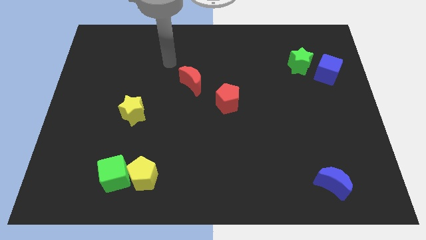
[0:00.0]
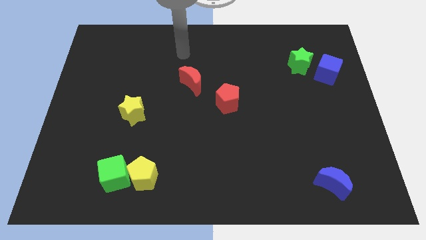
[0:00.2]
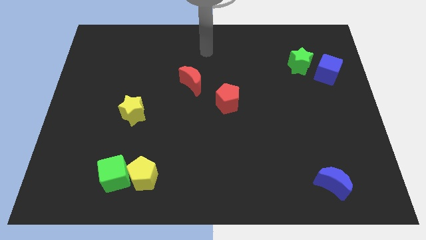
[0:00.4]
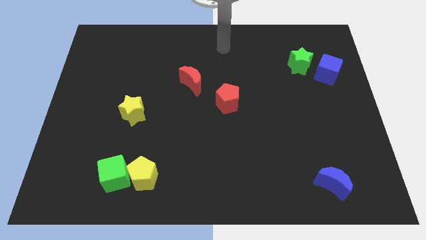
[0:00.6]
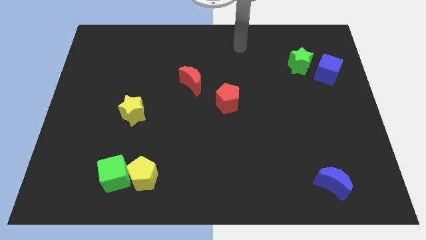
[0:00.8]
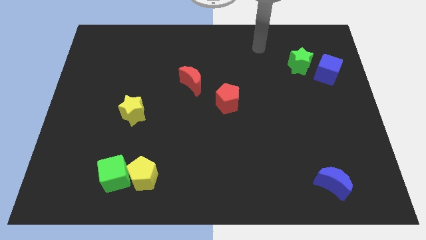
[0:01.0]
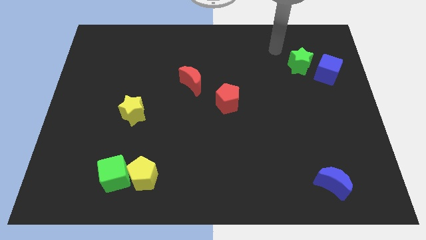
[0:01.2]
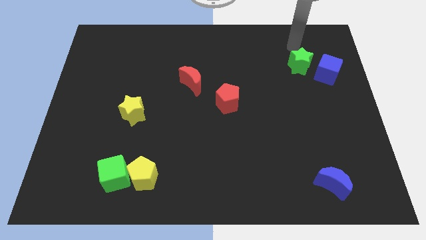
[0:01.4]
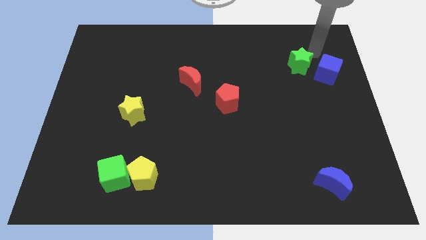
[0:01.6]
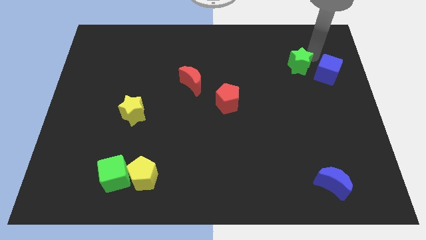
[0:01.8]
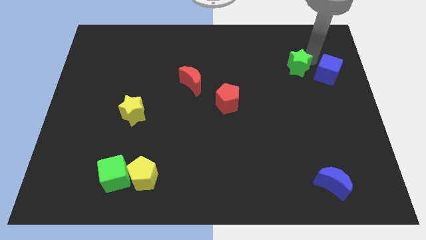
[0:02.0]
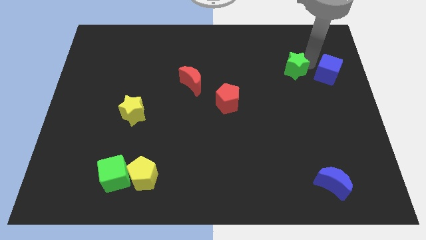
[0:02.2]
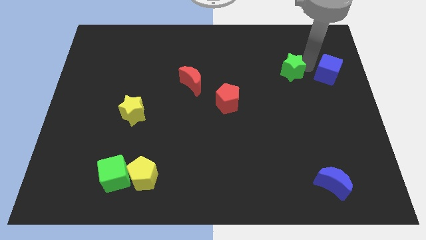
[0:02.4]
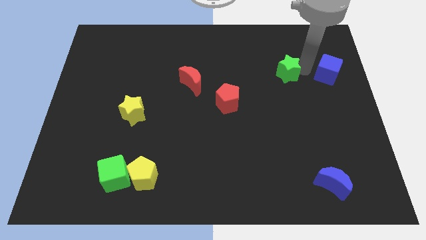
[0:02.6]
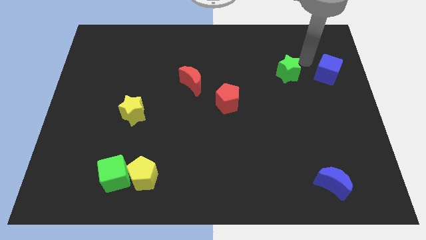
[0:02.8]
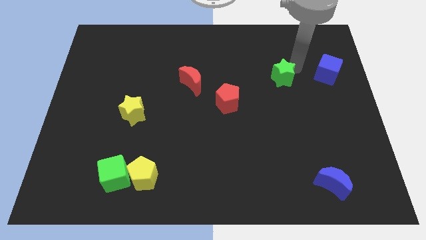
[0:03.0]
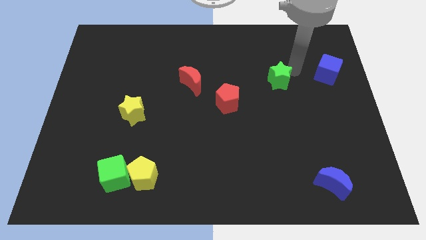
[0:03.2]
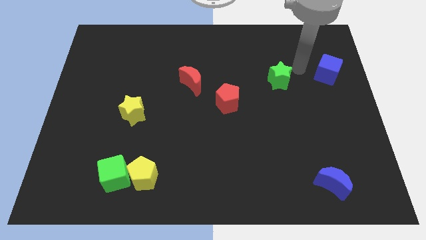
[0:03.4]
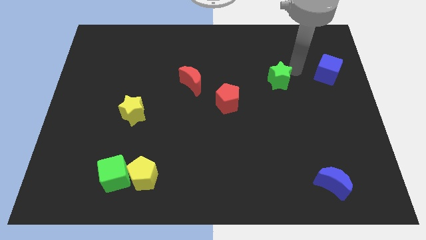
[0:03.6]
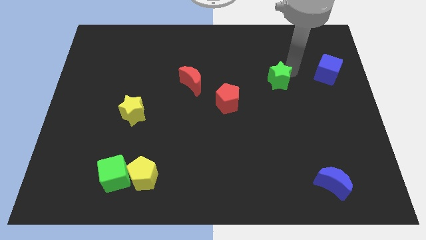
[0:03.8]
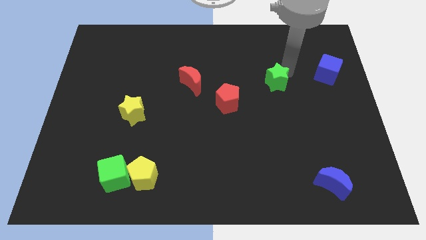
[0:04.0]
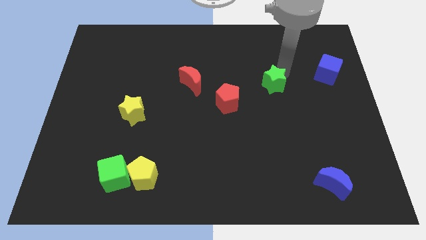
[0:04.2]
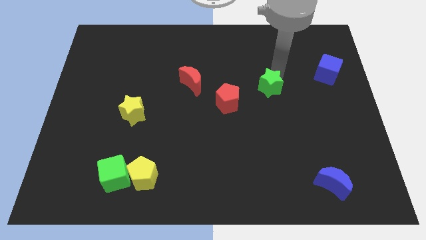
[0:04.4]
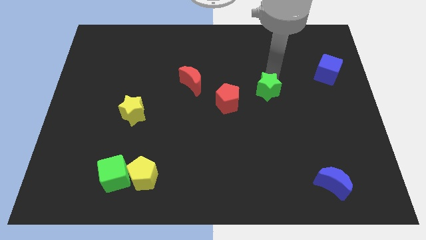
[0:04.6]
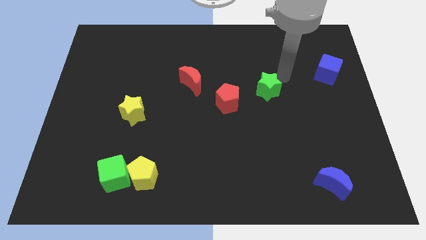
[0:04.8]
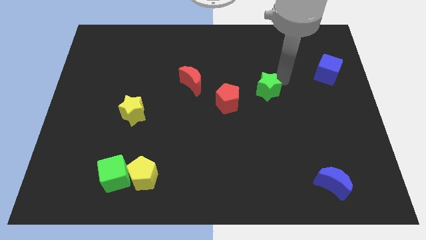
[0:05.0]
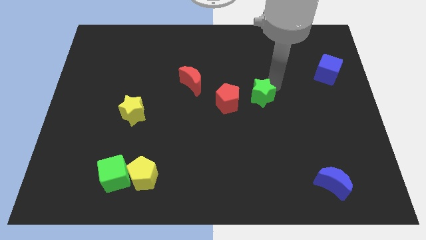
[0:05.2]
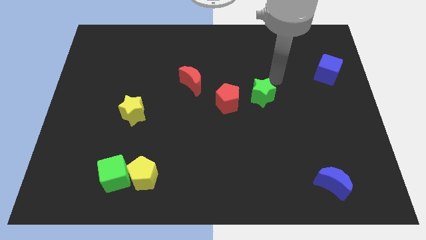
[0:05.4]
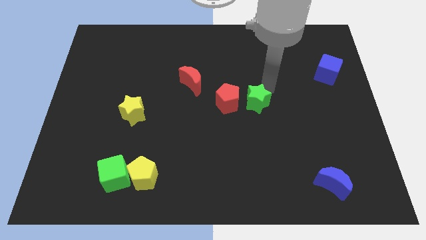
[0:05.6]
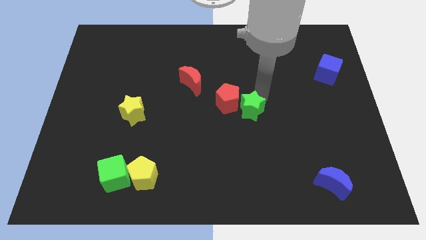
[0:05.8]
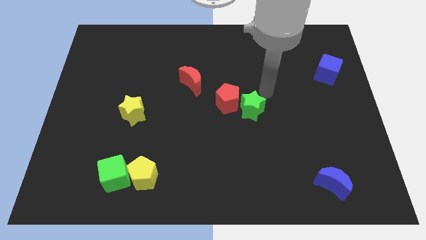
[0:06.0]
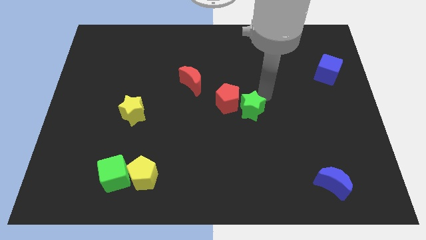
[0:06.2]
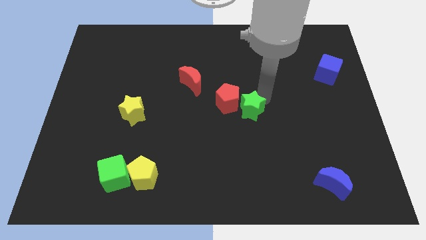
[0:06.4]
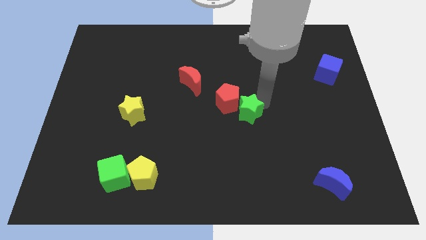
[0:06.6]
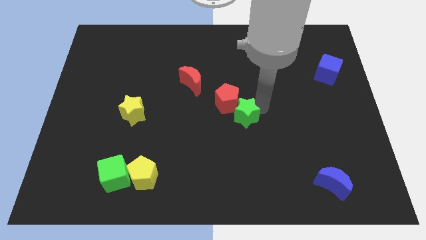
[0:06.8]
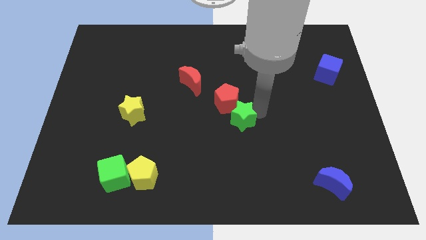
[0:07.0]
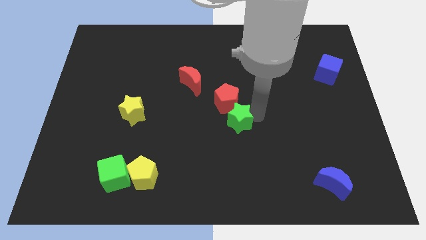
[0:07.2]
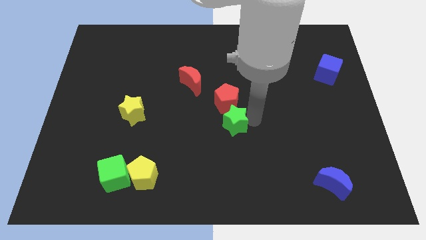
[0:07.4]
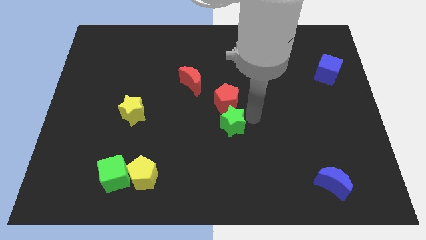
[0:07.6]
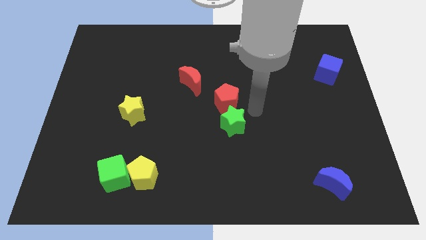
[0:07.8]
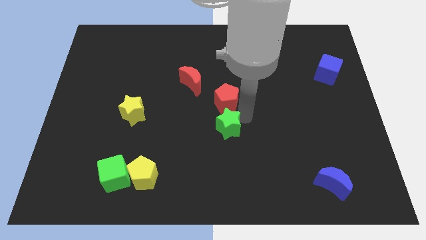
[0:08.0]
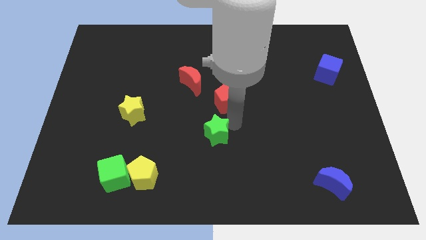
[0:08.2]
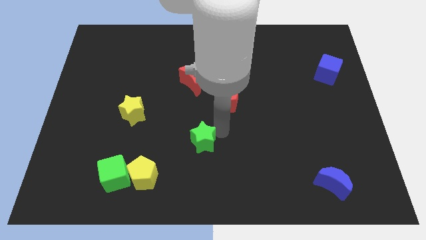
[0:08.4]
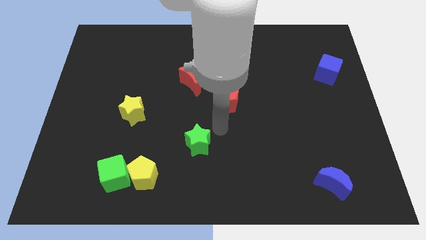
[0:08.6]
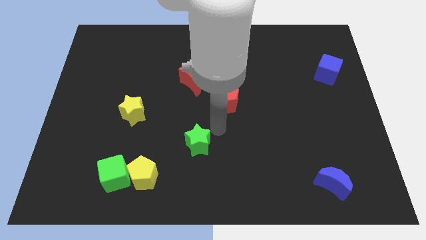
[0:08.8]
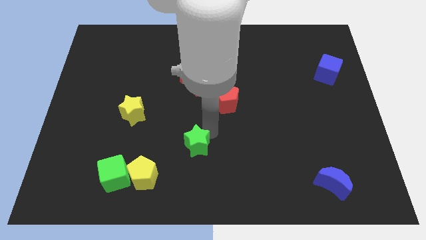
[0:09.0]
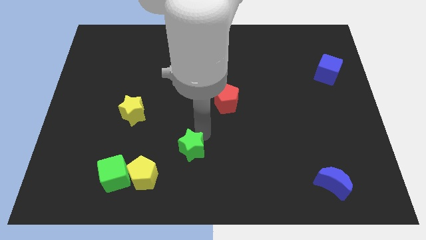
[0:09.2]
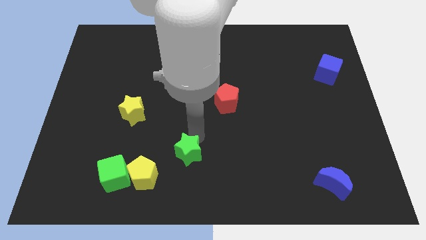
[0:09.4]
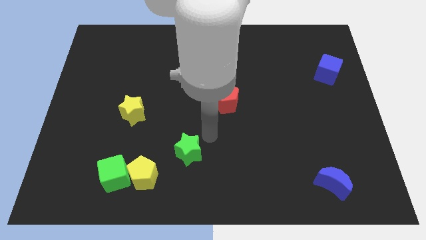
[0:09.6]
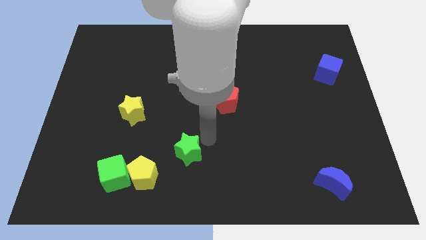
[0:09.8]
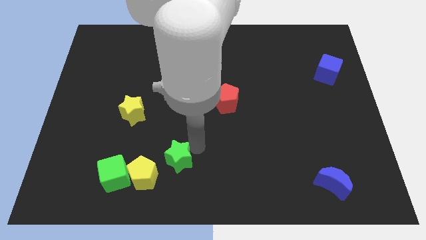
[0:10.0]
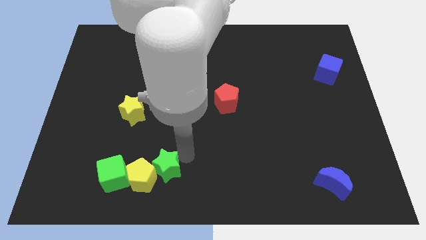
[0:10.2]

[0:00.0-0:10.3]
slide the green star close to the yellow pentagon

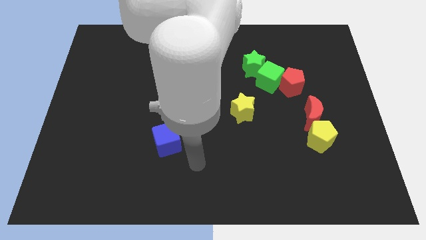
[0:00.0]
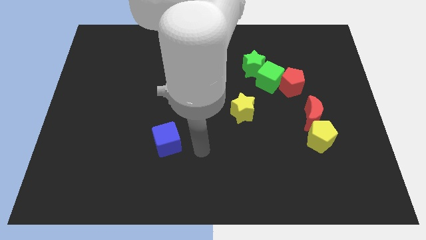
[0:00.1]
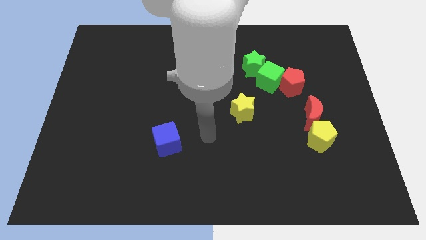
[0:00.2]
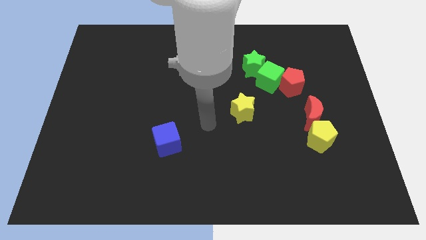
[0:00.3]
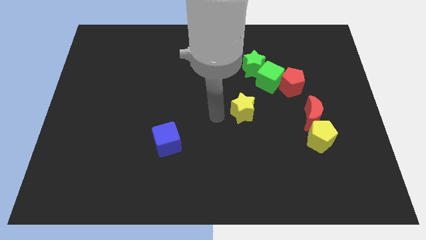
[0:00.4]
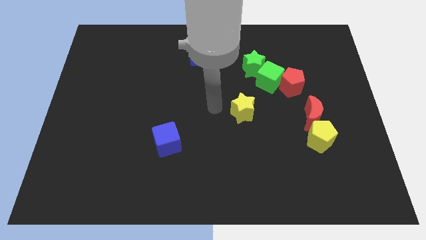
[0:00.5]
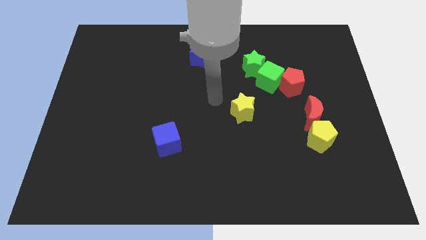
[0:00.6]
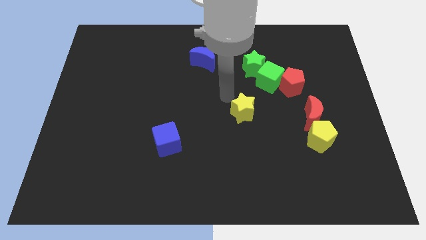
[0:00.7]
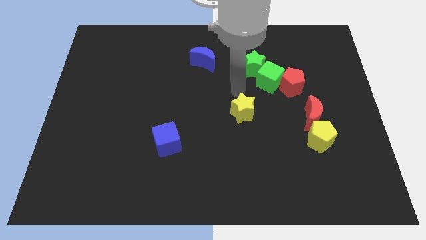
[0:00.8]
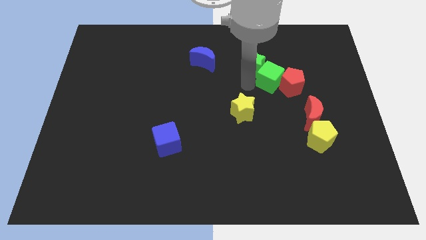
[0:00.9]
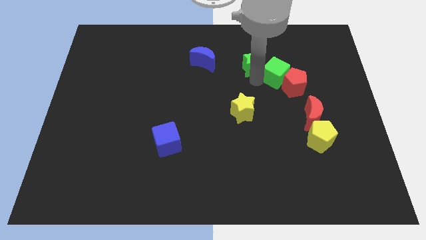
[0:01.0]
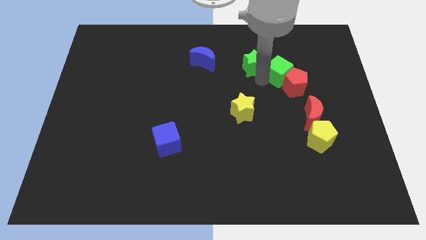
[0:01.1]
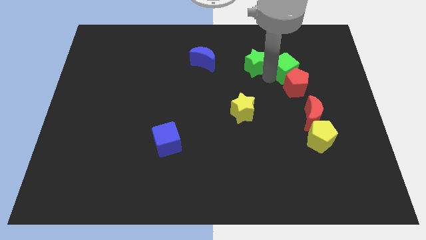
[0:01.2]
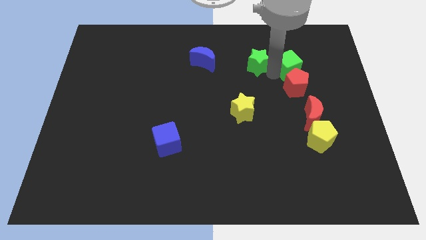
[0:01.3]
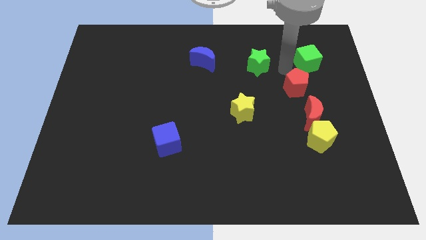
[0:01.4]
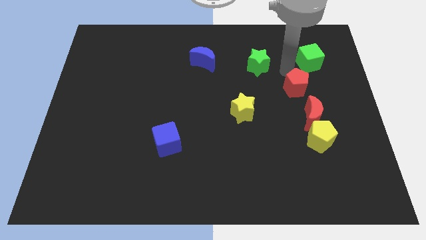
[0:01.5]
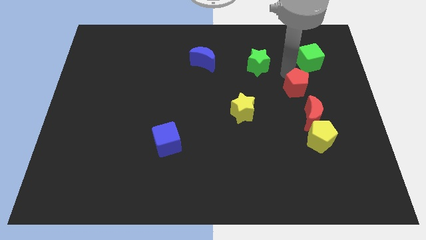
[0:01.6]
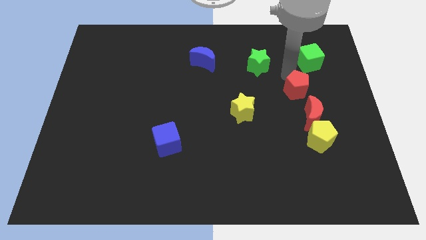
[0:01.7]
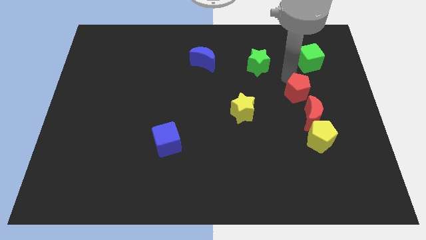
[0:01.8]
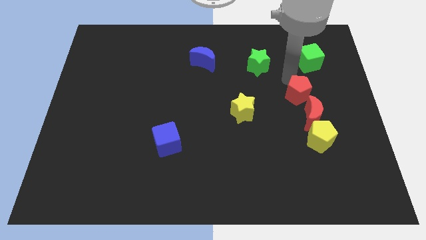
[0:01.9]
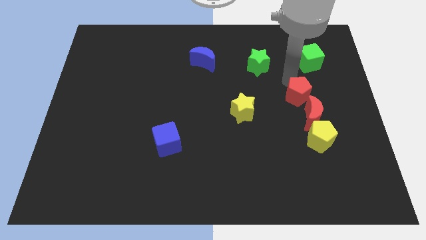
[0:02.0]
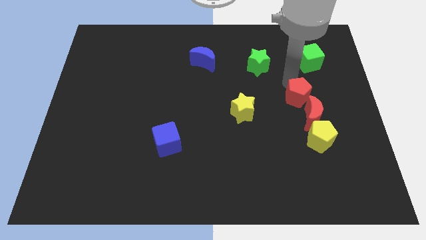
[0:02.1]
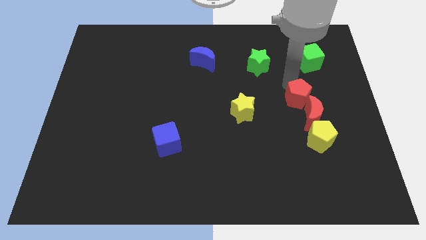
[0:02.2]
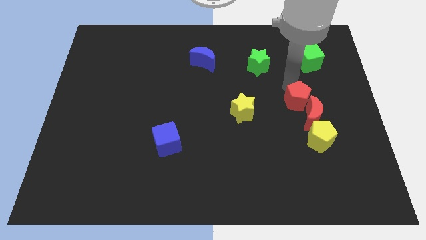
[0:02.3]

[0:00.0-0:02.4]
put the red pentagon next to the red moon
